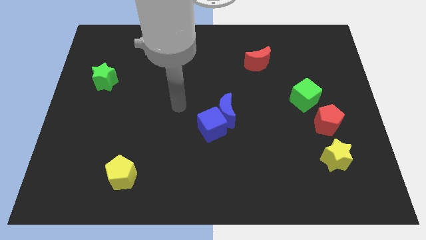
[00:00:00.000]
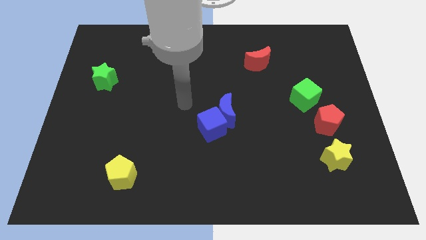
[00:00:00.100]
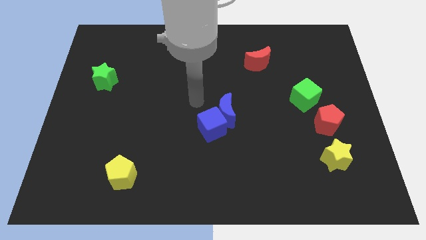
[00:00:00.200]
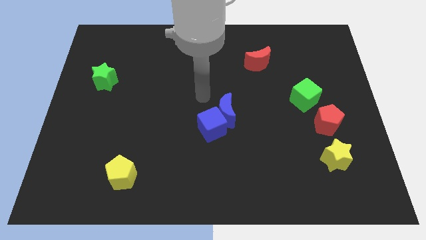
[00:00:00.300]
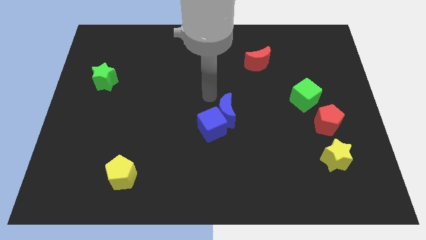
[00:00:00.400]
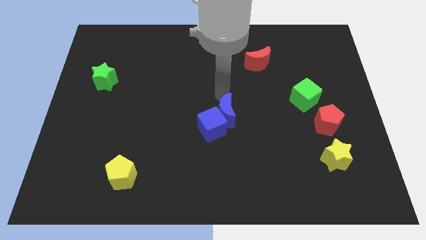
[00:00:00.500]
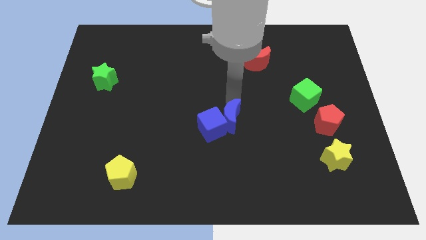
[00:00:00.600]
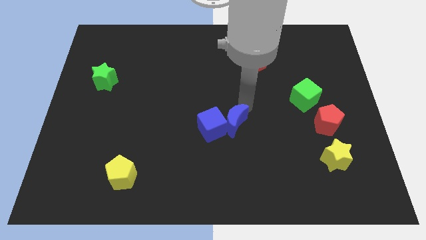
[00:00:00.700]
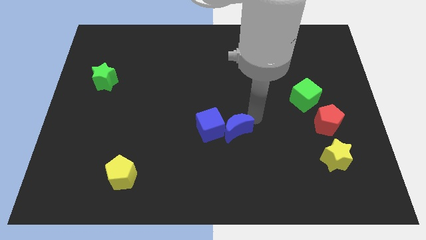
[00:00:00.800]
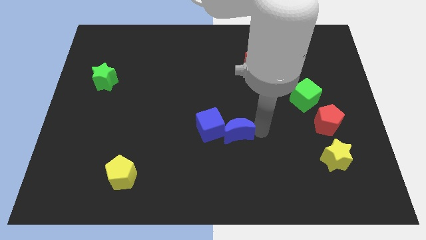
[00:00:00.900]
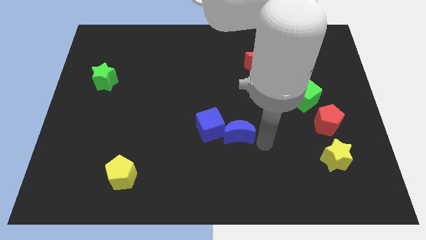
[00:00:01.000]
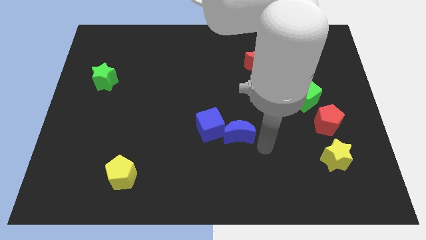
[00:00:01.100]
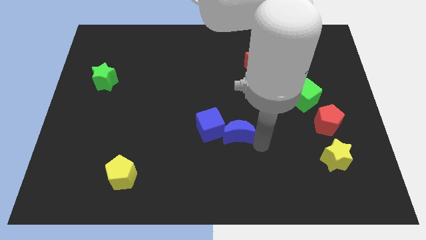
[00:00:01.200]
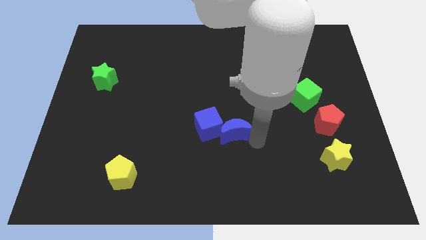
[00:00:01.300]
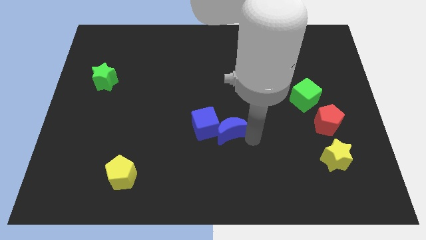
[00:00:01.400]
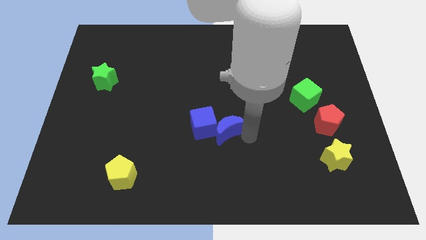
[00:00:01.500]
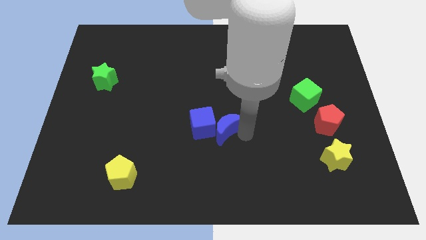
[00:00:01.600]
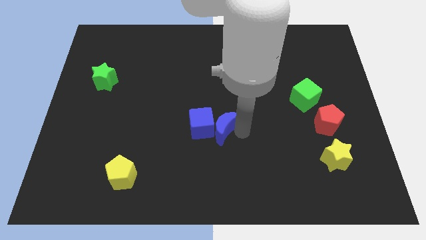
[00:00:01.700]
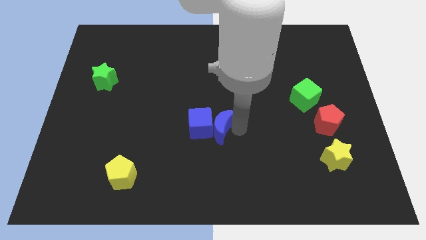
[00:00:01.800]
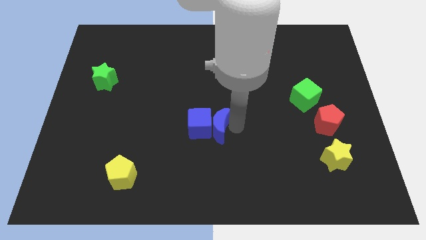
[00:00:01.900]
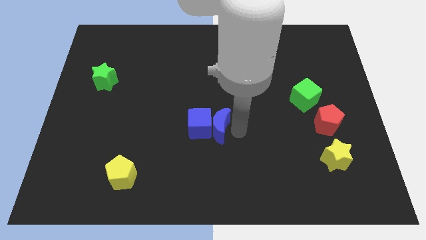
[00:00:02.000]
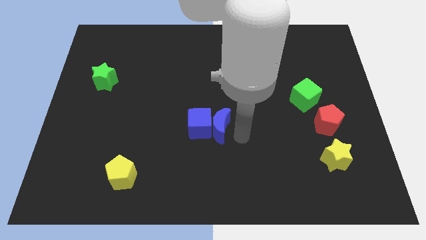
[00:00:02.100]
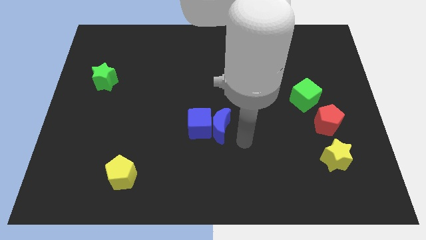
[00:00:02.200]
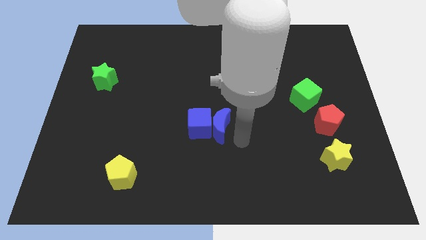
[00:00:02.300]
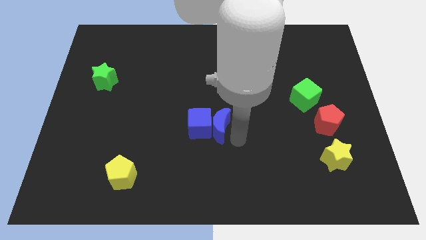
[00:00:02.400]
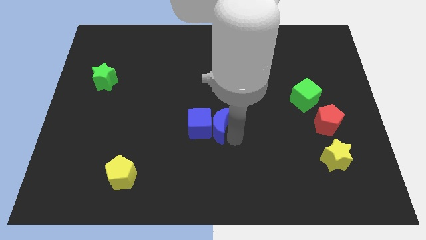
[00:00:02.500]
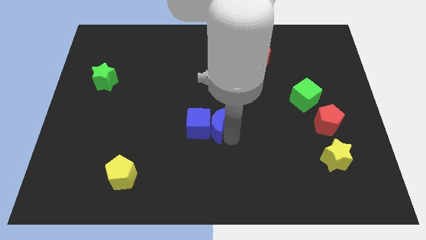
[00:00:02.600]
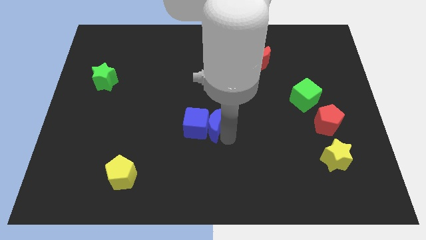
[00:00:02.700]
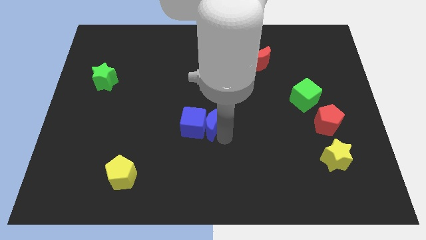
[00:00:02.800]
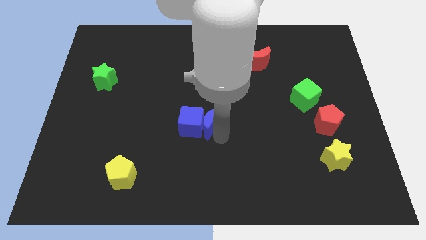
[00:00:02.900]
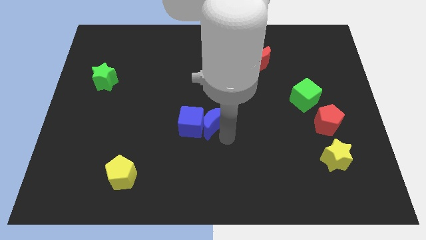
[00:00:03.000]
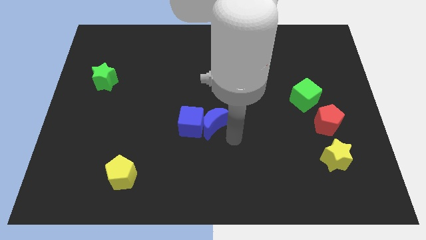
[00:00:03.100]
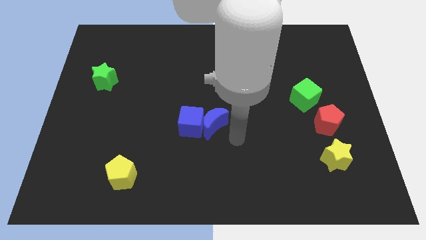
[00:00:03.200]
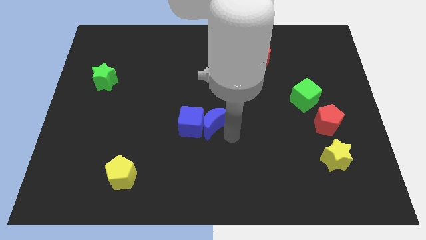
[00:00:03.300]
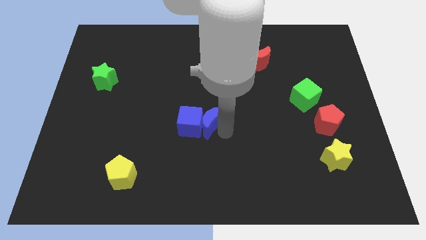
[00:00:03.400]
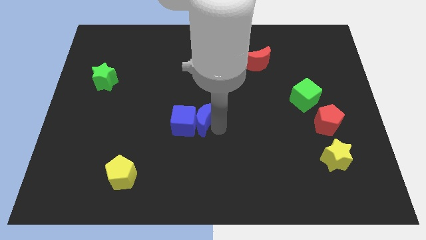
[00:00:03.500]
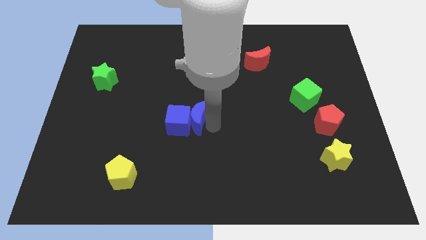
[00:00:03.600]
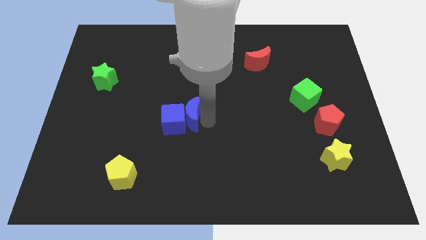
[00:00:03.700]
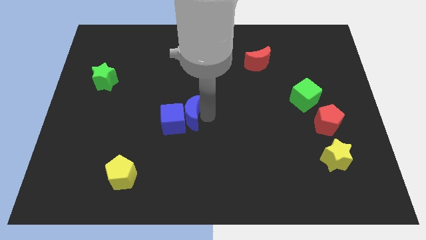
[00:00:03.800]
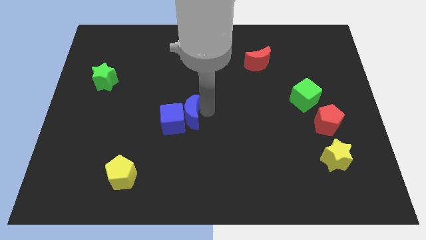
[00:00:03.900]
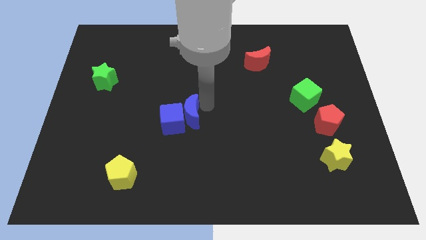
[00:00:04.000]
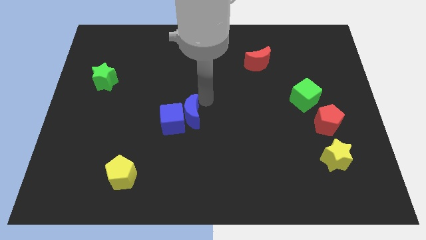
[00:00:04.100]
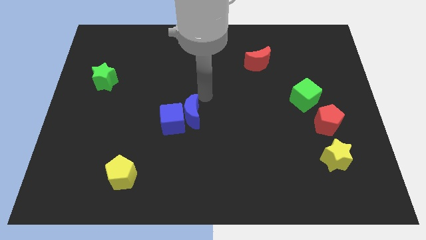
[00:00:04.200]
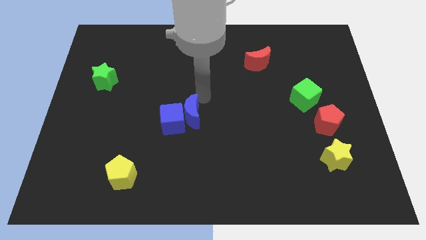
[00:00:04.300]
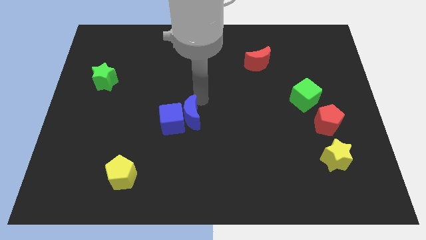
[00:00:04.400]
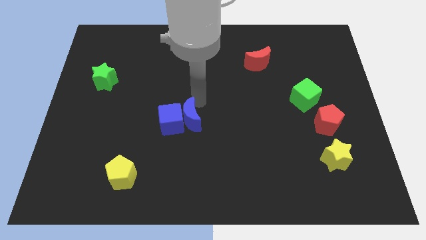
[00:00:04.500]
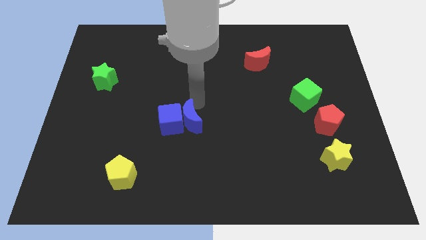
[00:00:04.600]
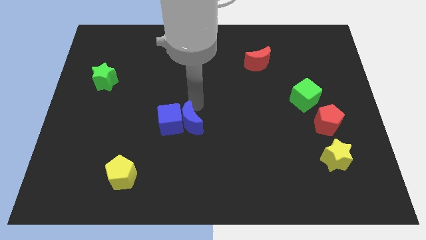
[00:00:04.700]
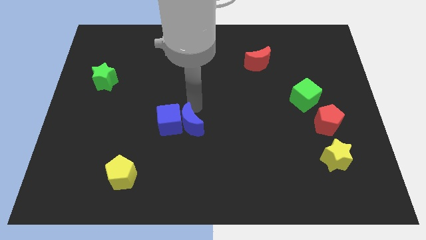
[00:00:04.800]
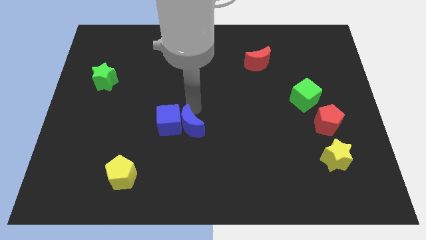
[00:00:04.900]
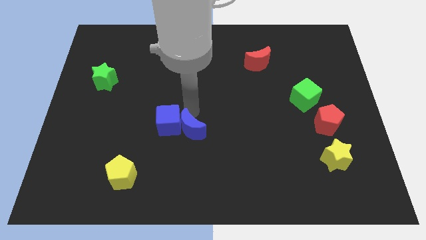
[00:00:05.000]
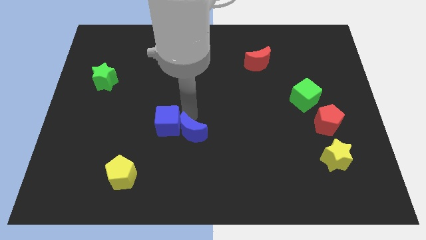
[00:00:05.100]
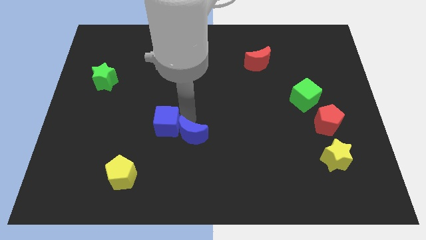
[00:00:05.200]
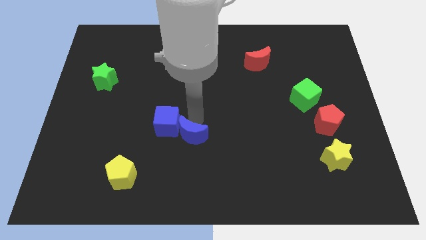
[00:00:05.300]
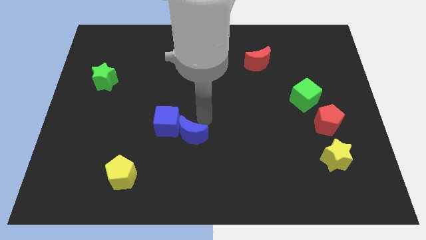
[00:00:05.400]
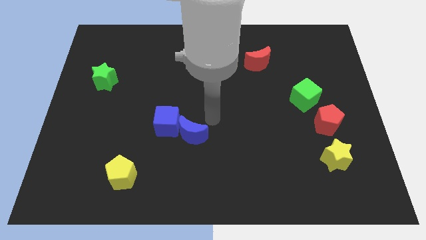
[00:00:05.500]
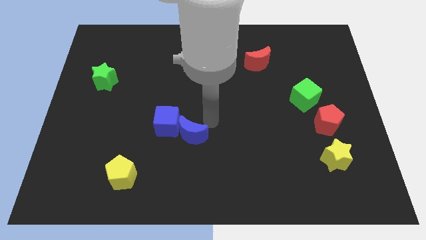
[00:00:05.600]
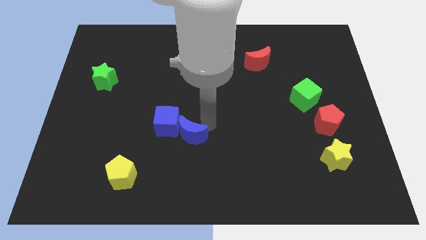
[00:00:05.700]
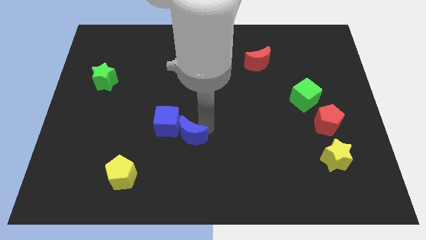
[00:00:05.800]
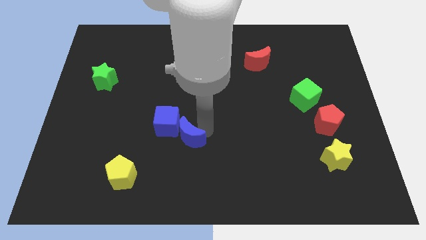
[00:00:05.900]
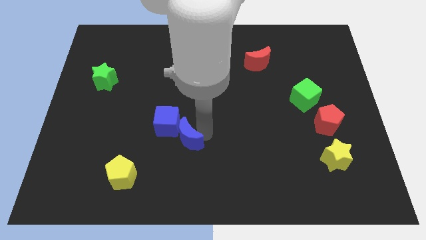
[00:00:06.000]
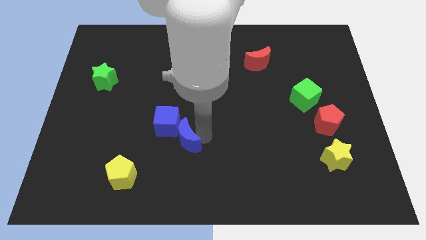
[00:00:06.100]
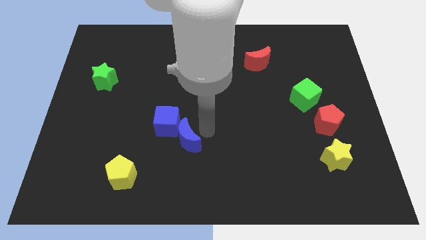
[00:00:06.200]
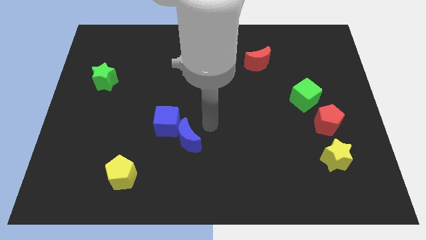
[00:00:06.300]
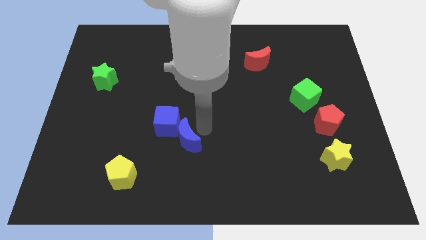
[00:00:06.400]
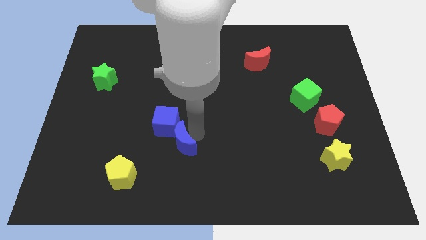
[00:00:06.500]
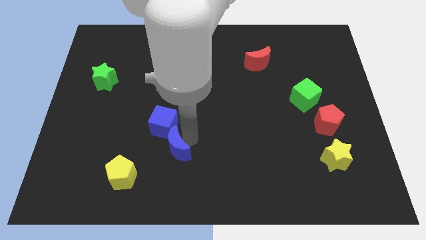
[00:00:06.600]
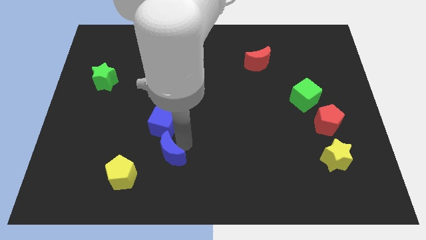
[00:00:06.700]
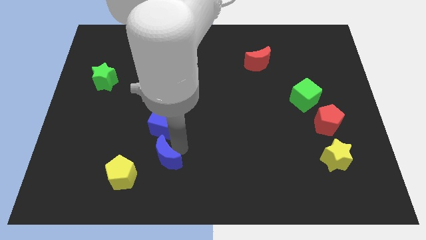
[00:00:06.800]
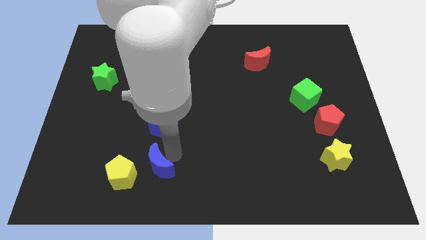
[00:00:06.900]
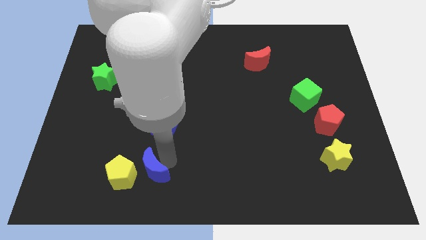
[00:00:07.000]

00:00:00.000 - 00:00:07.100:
push the blue moon to the yellow pentagon

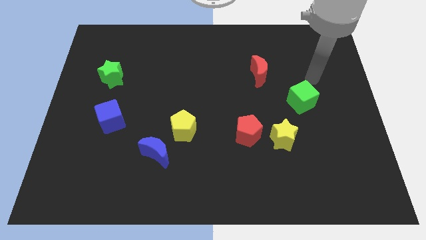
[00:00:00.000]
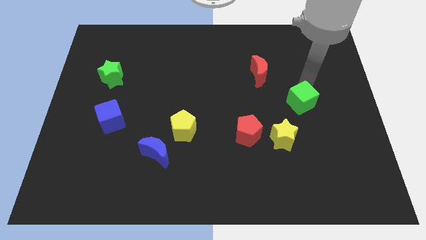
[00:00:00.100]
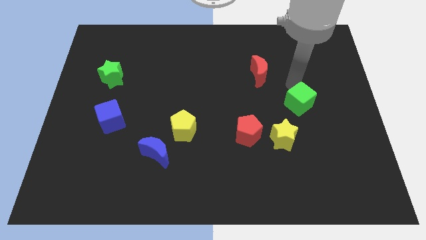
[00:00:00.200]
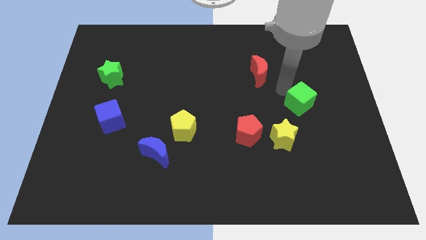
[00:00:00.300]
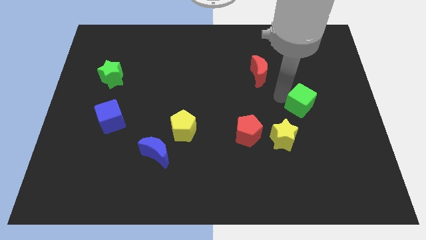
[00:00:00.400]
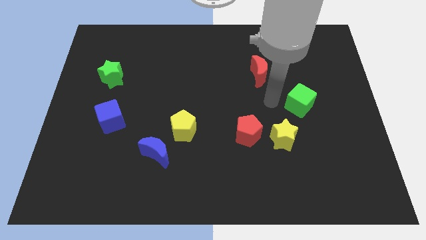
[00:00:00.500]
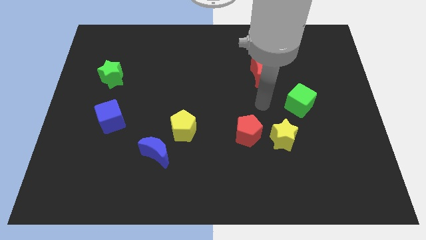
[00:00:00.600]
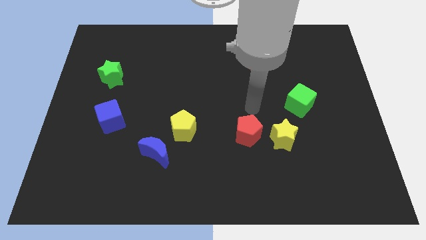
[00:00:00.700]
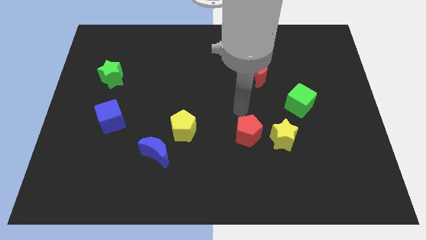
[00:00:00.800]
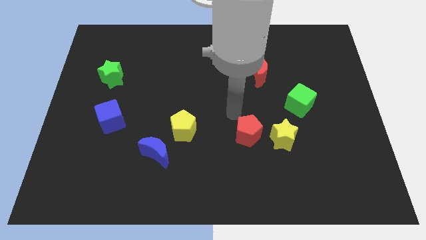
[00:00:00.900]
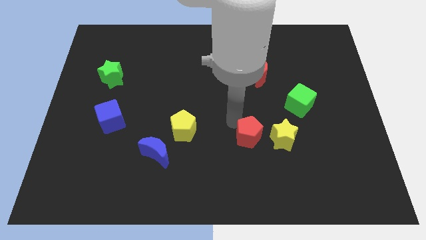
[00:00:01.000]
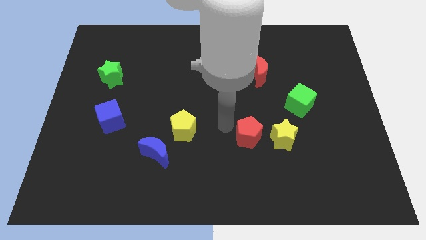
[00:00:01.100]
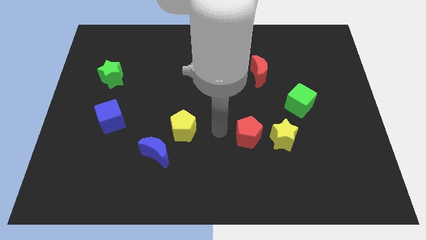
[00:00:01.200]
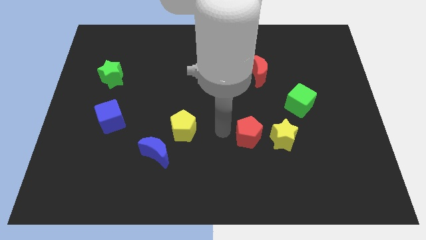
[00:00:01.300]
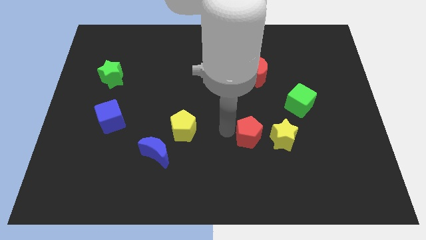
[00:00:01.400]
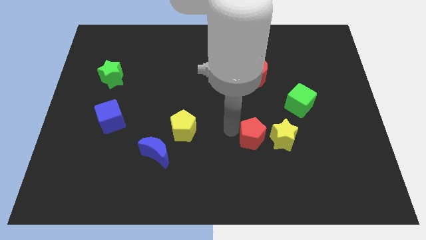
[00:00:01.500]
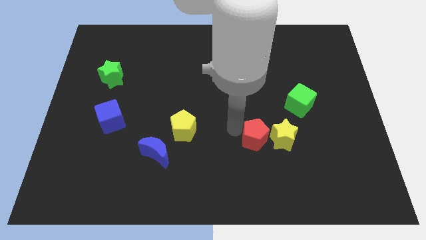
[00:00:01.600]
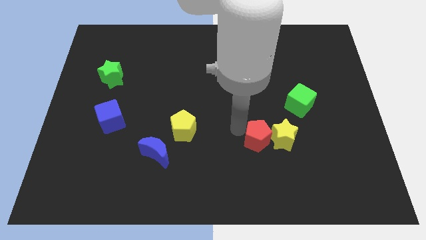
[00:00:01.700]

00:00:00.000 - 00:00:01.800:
put the red pentagon next to the yellow star
